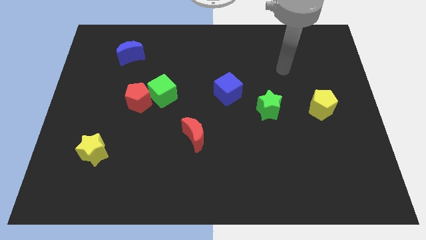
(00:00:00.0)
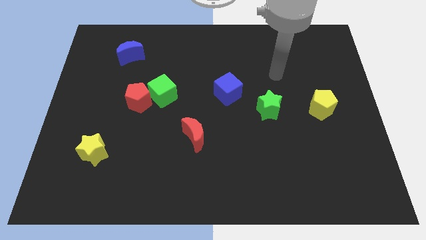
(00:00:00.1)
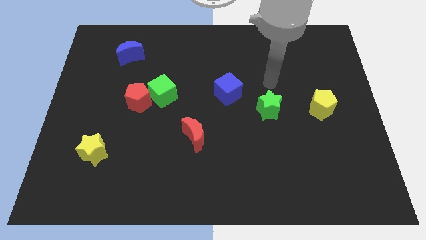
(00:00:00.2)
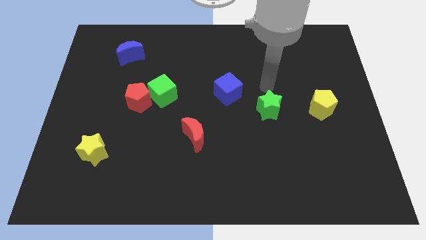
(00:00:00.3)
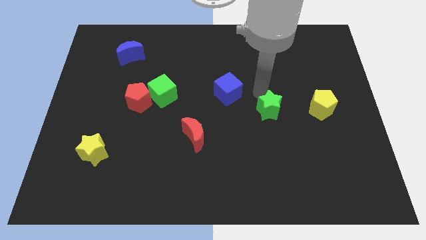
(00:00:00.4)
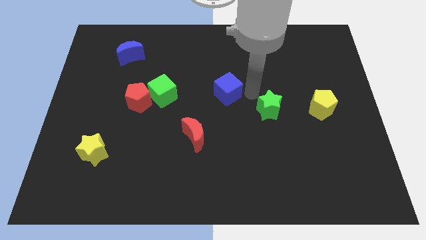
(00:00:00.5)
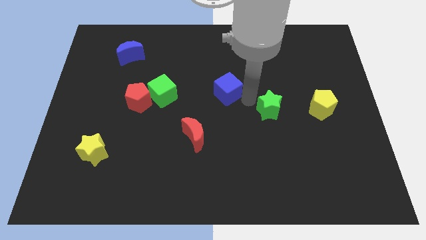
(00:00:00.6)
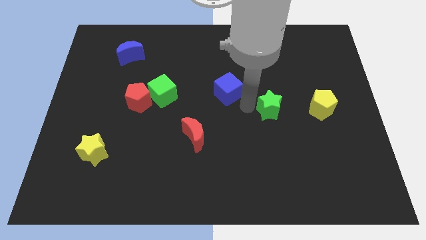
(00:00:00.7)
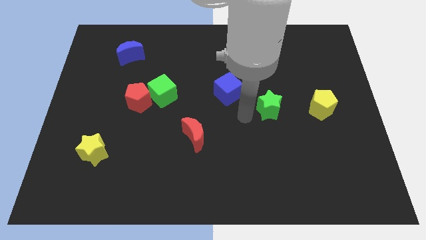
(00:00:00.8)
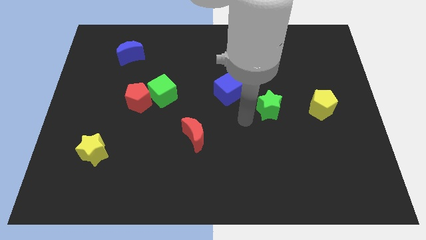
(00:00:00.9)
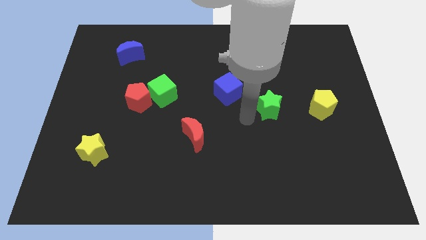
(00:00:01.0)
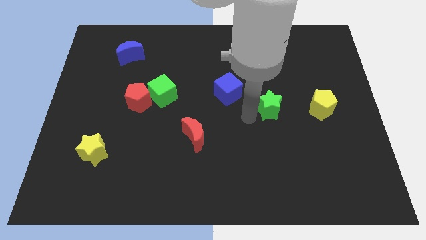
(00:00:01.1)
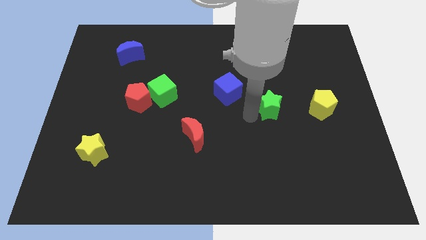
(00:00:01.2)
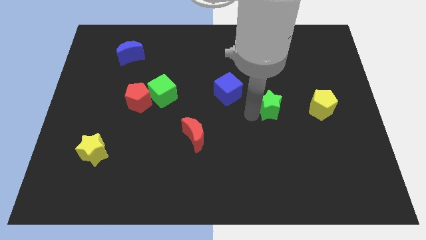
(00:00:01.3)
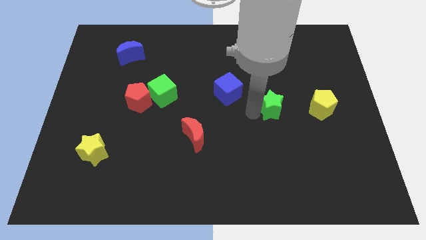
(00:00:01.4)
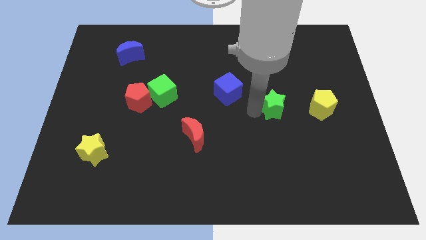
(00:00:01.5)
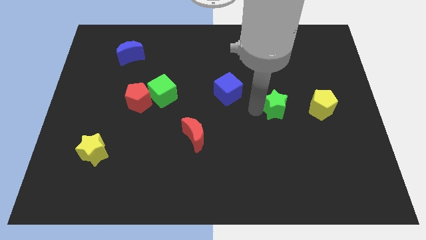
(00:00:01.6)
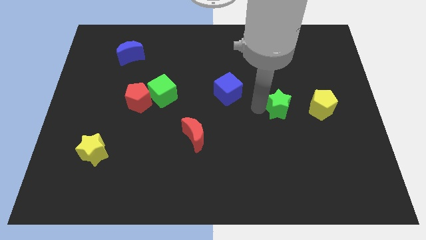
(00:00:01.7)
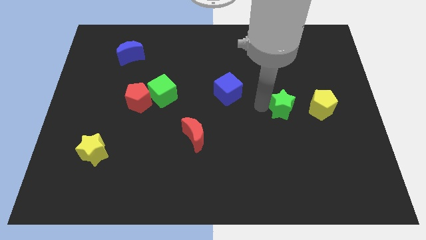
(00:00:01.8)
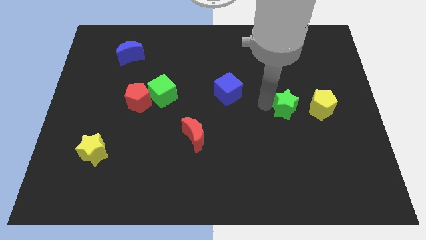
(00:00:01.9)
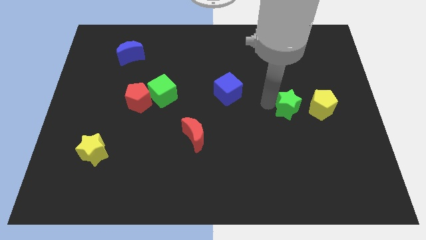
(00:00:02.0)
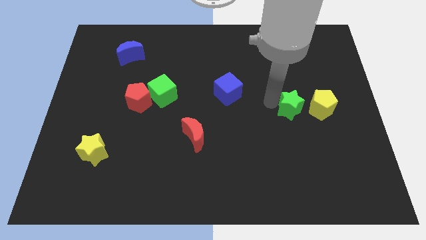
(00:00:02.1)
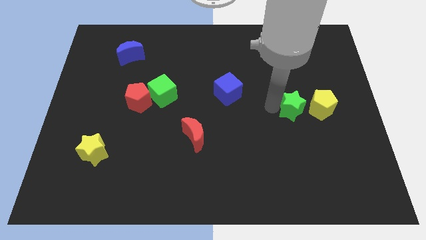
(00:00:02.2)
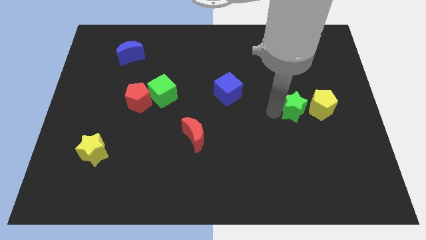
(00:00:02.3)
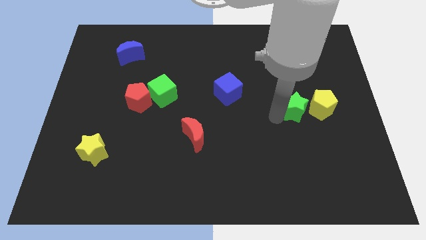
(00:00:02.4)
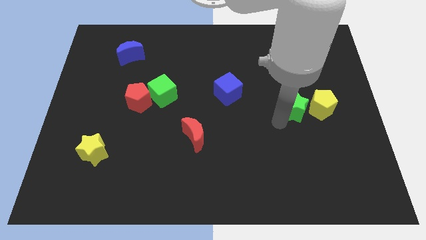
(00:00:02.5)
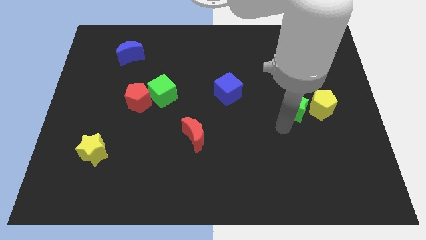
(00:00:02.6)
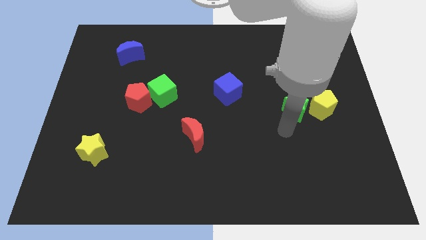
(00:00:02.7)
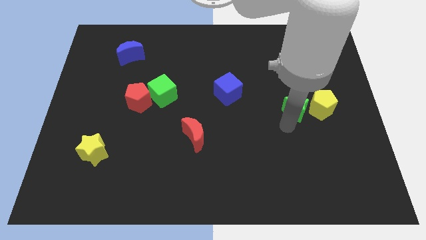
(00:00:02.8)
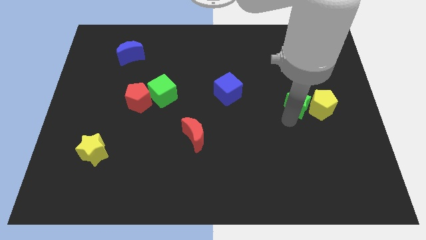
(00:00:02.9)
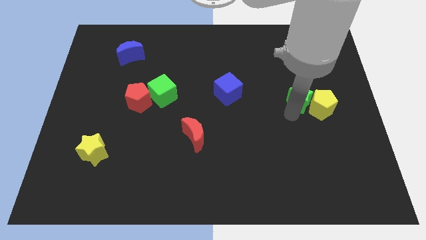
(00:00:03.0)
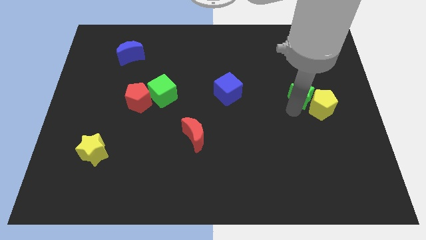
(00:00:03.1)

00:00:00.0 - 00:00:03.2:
move the green star slightly up and to the right

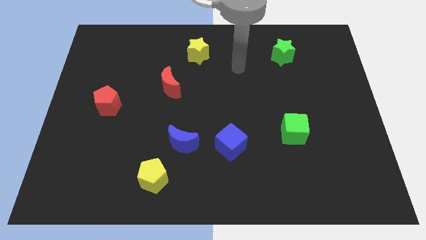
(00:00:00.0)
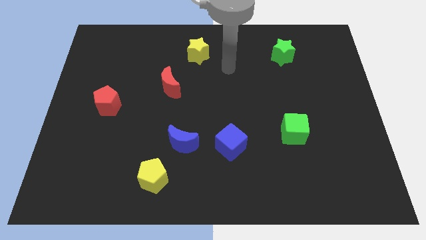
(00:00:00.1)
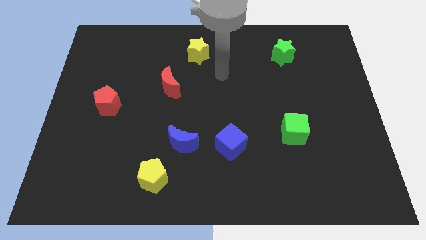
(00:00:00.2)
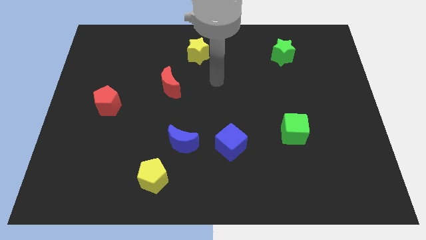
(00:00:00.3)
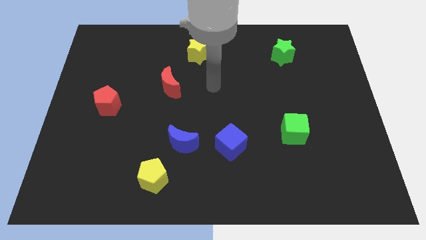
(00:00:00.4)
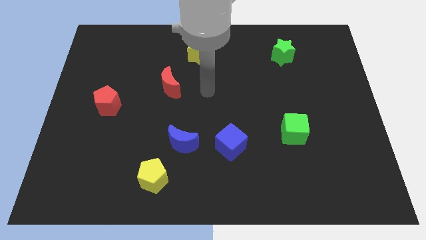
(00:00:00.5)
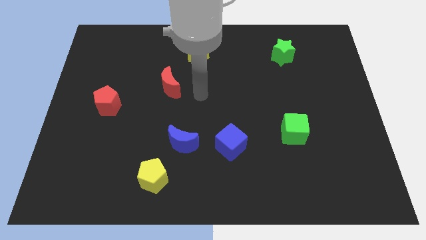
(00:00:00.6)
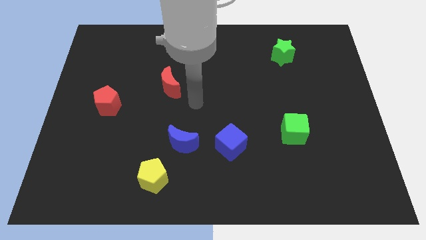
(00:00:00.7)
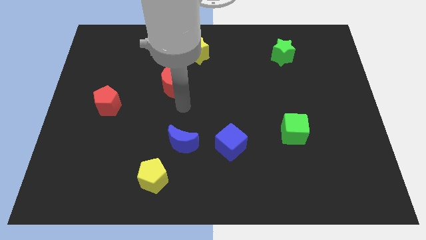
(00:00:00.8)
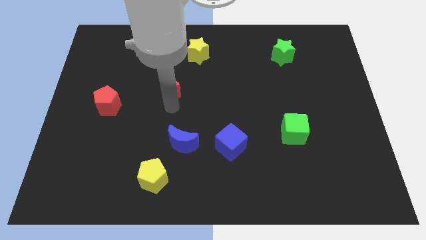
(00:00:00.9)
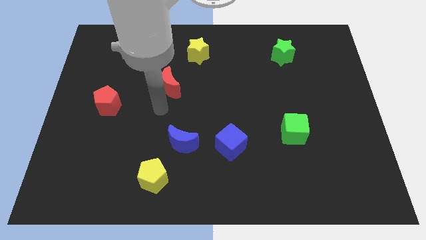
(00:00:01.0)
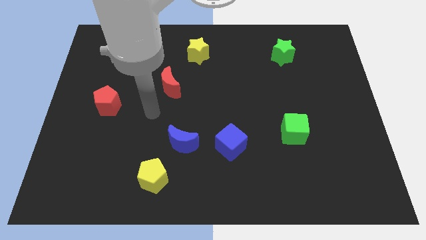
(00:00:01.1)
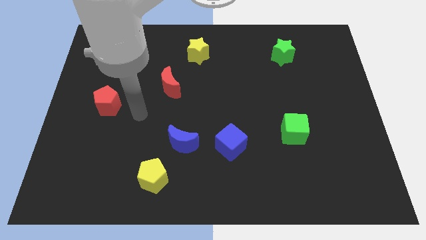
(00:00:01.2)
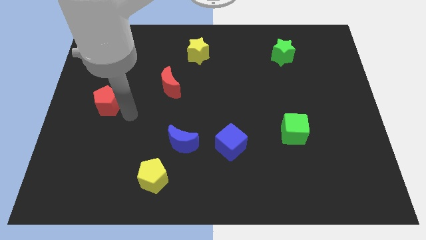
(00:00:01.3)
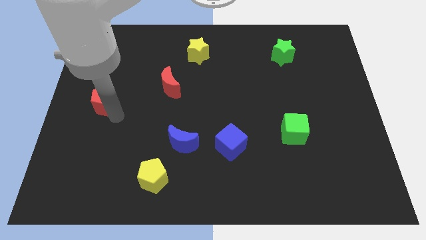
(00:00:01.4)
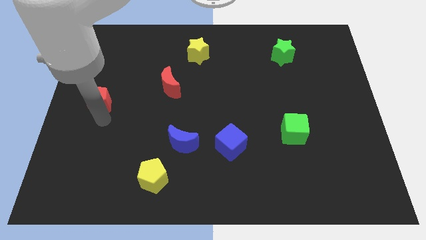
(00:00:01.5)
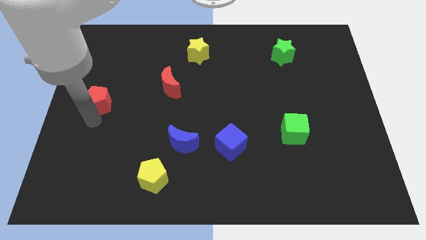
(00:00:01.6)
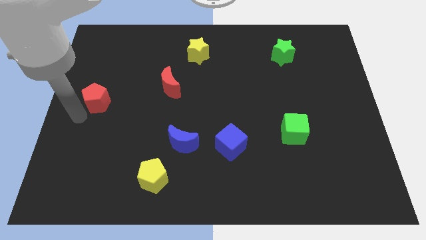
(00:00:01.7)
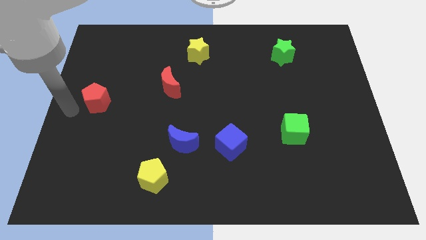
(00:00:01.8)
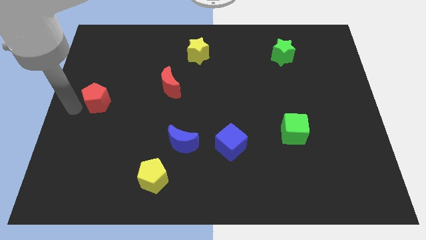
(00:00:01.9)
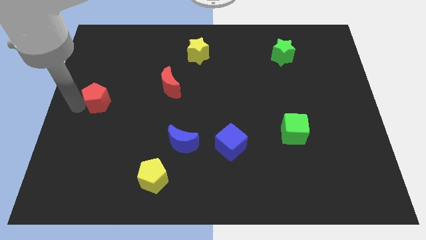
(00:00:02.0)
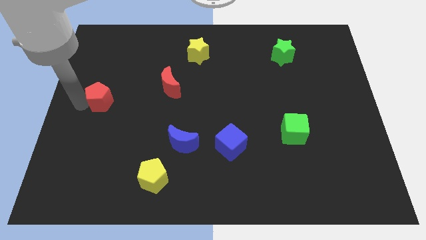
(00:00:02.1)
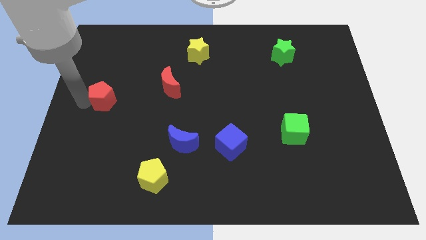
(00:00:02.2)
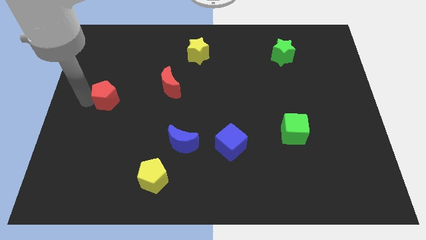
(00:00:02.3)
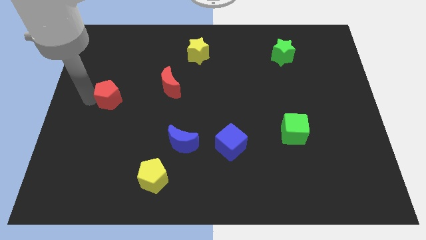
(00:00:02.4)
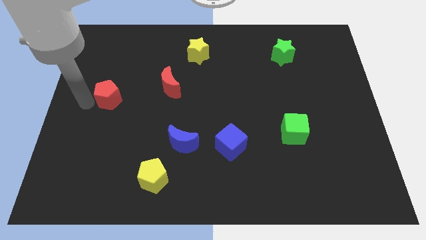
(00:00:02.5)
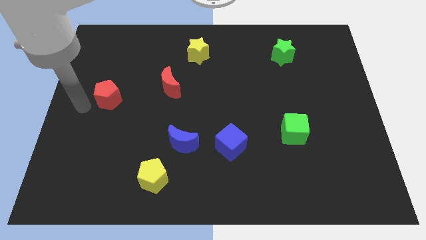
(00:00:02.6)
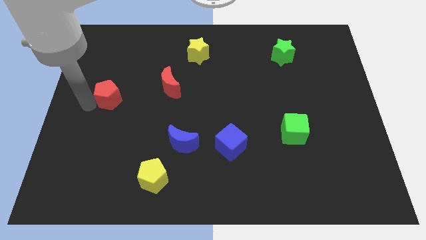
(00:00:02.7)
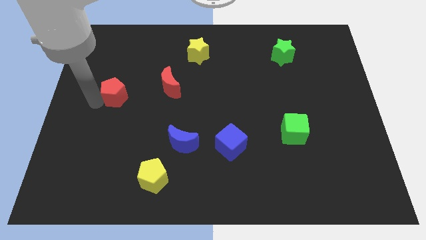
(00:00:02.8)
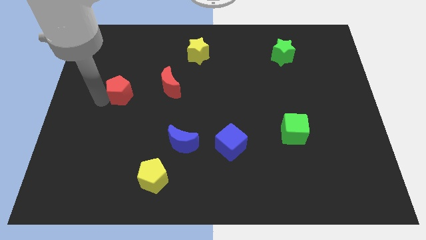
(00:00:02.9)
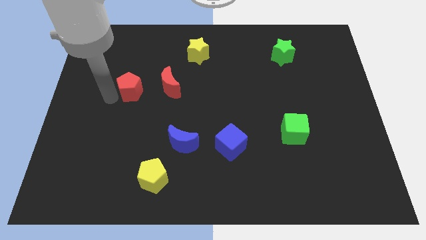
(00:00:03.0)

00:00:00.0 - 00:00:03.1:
slide the red pentagon up and then right a little bit

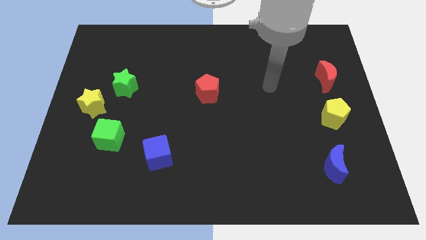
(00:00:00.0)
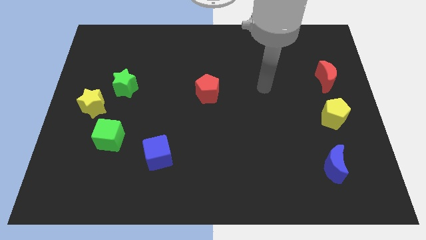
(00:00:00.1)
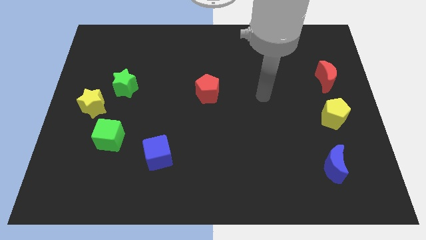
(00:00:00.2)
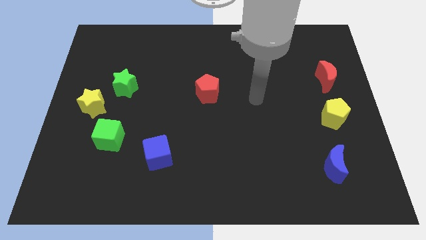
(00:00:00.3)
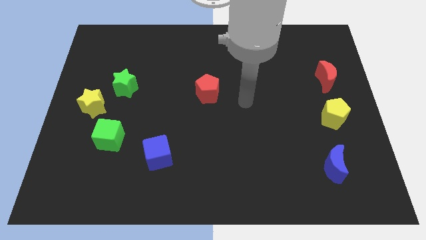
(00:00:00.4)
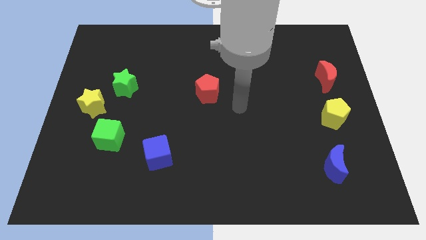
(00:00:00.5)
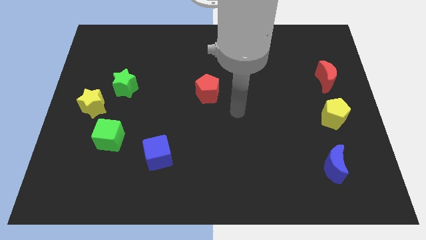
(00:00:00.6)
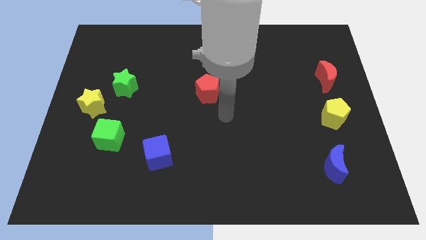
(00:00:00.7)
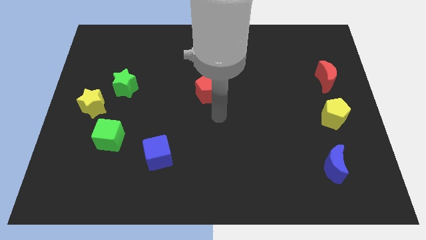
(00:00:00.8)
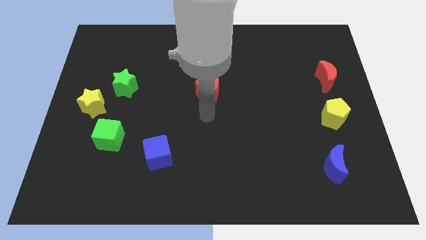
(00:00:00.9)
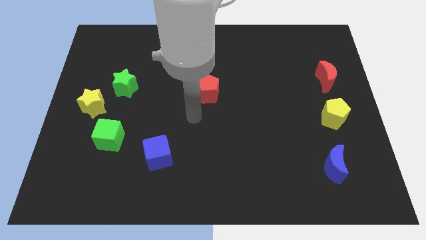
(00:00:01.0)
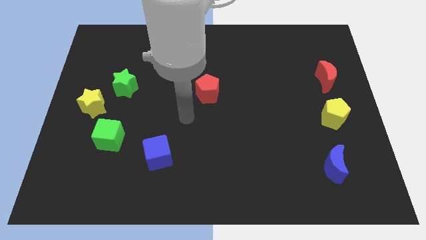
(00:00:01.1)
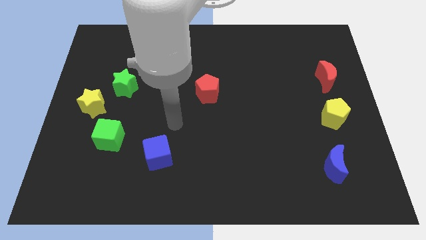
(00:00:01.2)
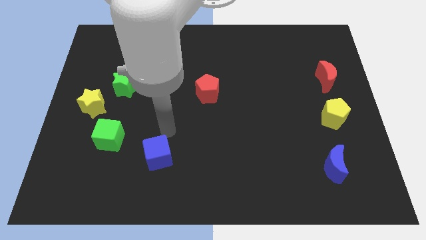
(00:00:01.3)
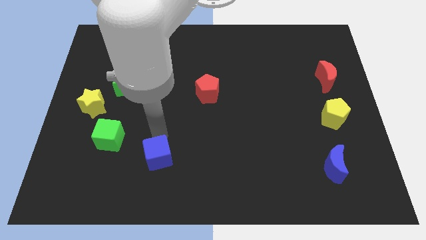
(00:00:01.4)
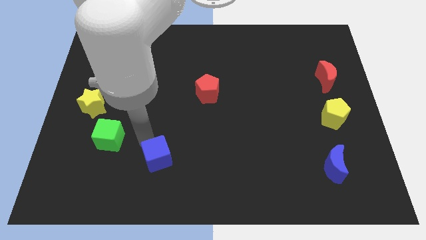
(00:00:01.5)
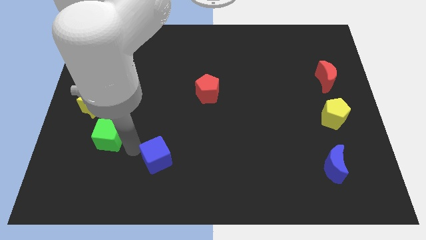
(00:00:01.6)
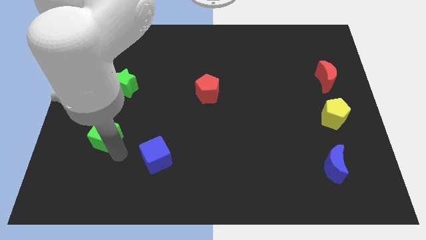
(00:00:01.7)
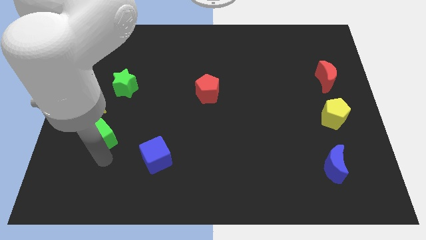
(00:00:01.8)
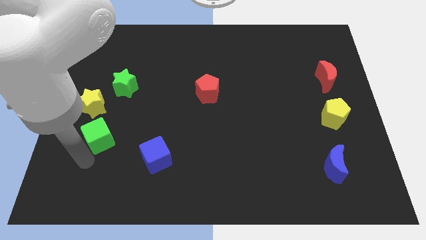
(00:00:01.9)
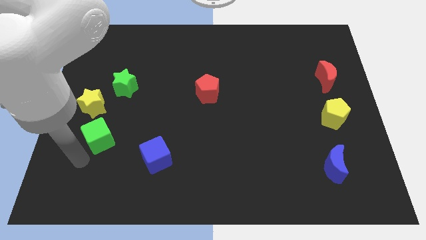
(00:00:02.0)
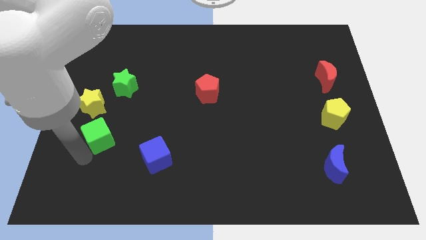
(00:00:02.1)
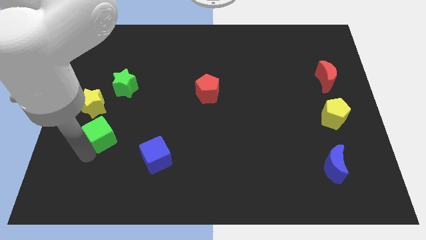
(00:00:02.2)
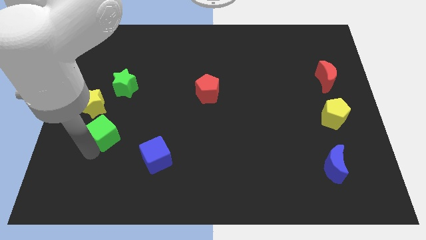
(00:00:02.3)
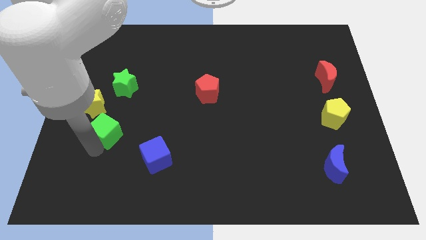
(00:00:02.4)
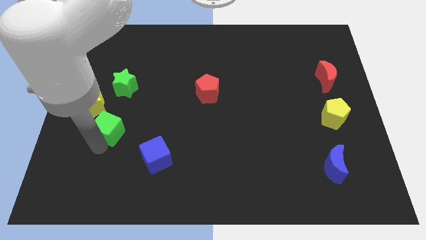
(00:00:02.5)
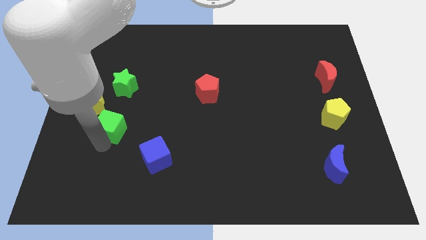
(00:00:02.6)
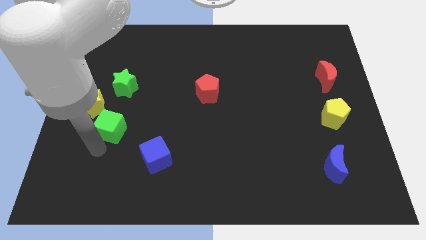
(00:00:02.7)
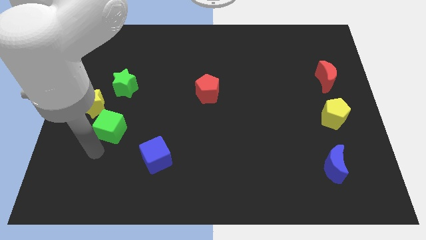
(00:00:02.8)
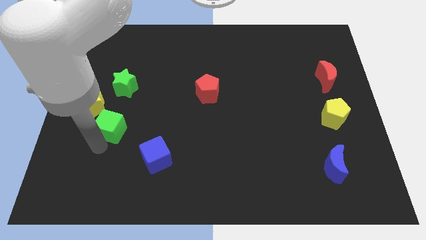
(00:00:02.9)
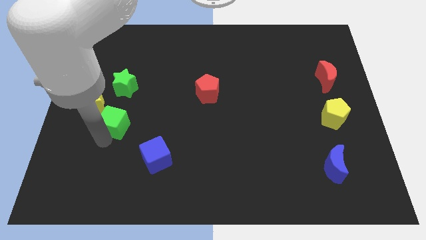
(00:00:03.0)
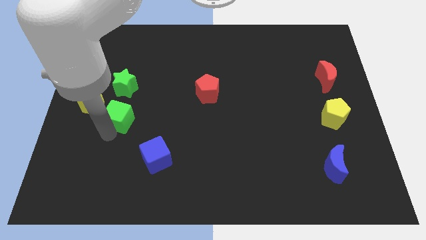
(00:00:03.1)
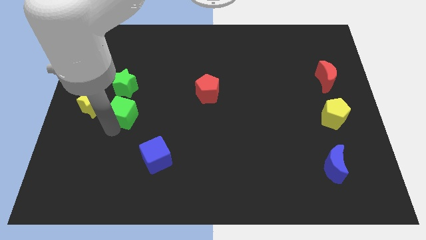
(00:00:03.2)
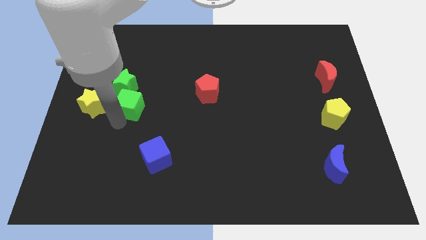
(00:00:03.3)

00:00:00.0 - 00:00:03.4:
slide the green cube up a little bit
